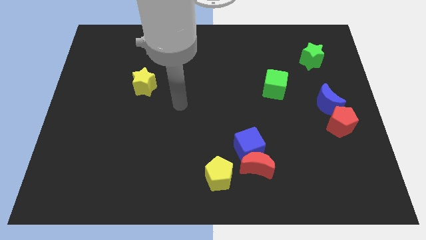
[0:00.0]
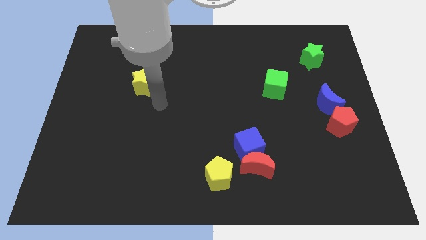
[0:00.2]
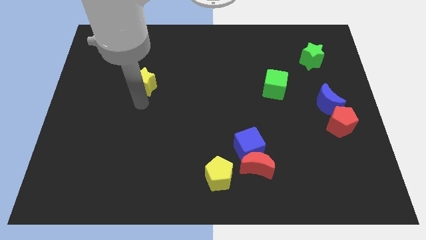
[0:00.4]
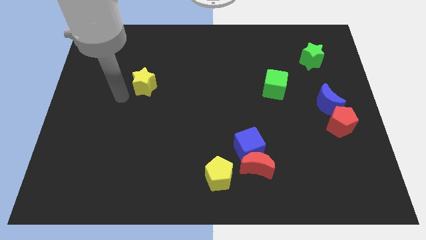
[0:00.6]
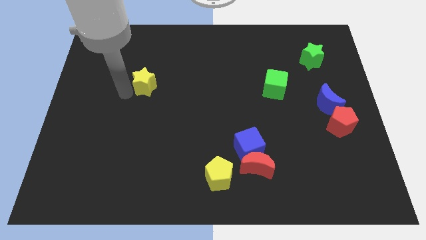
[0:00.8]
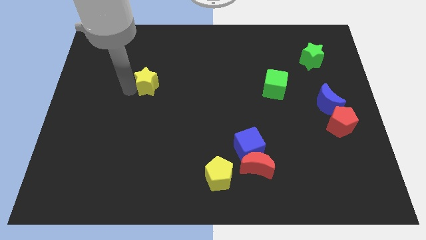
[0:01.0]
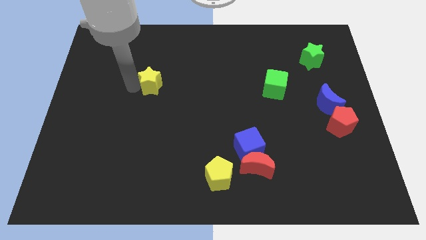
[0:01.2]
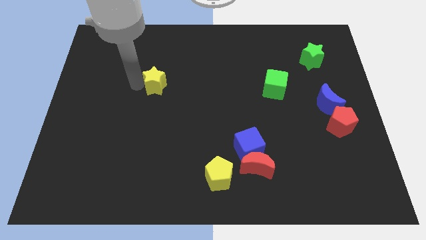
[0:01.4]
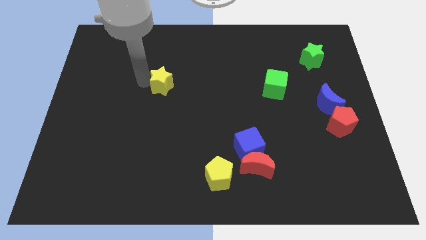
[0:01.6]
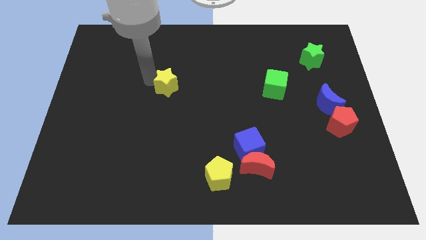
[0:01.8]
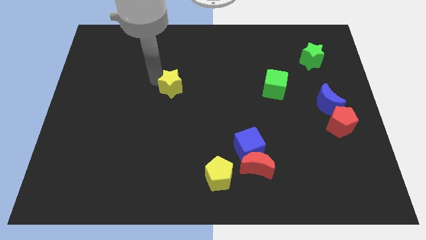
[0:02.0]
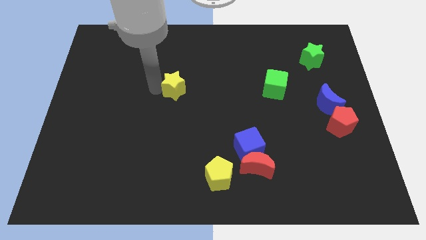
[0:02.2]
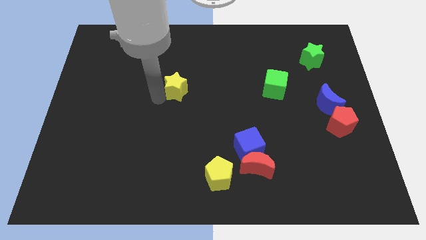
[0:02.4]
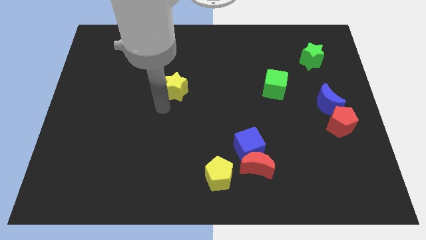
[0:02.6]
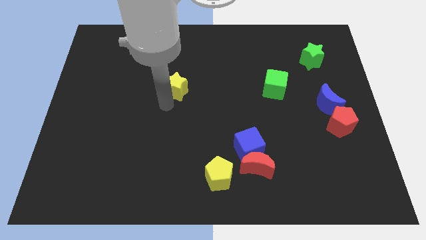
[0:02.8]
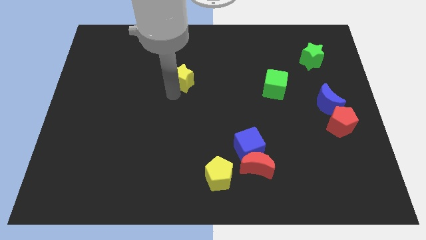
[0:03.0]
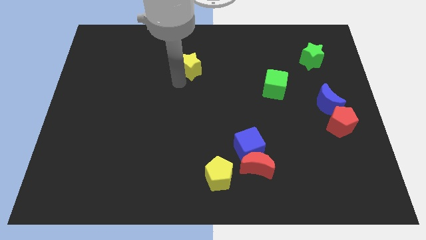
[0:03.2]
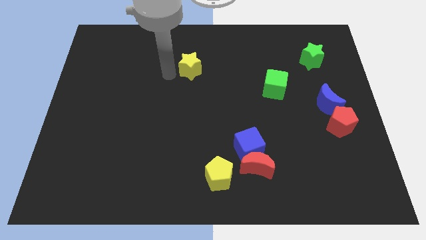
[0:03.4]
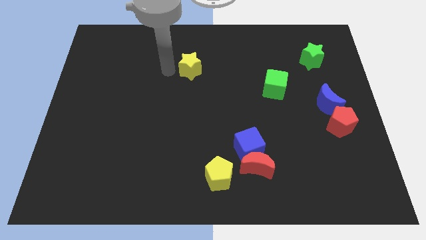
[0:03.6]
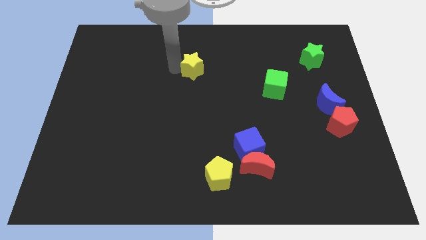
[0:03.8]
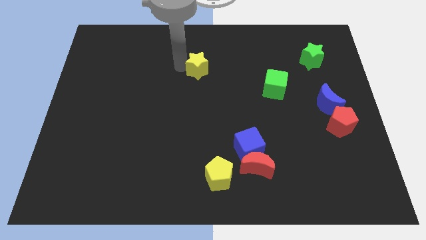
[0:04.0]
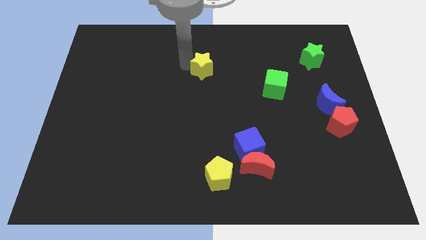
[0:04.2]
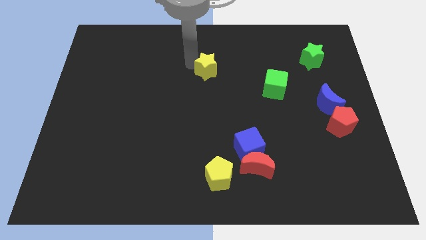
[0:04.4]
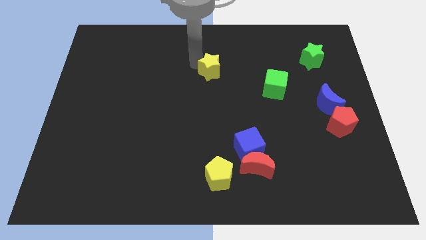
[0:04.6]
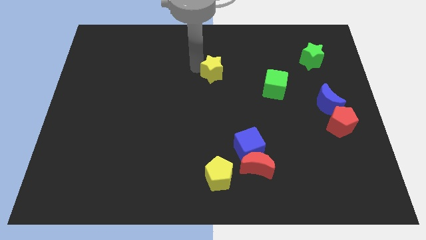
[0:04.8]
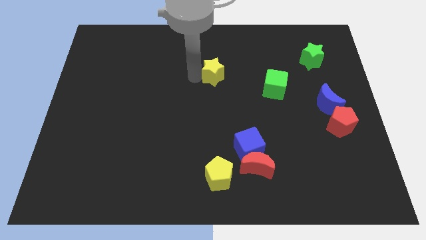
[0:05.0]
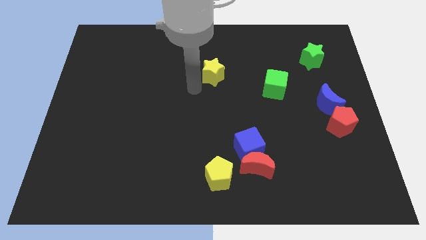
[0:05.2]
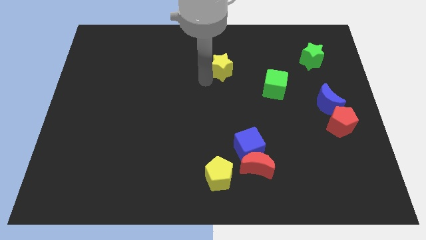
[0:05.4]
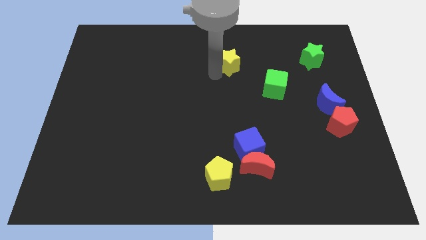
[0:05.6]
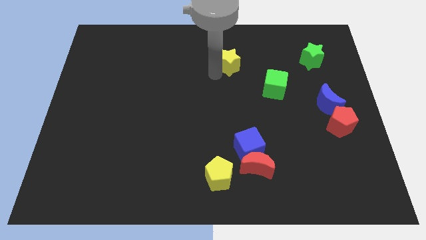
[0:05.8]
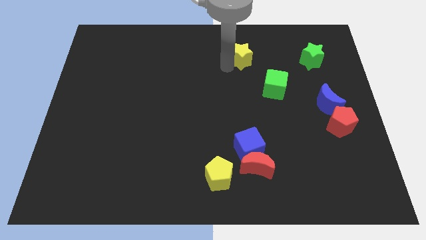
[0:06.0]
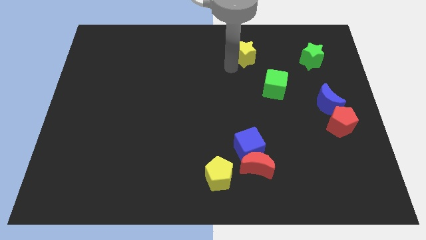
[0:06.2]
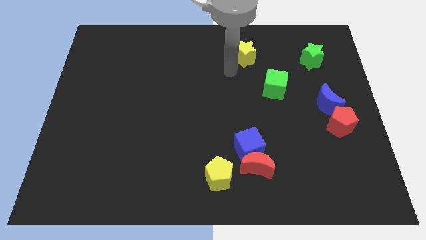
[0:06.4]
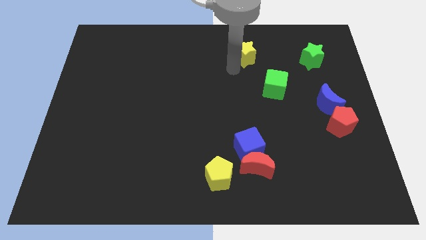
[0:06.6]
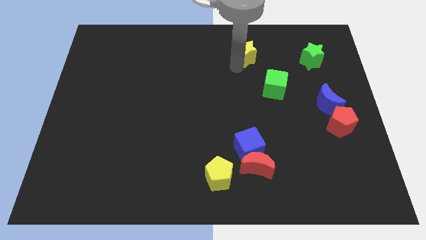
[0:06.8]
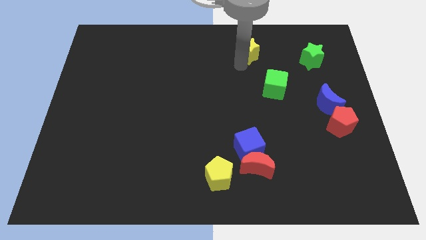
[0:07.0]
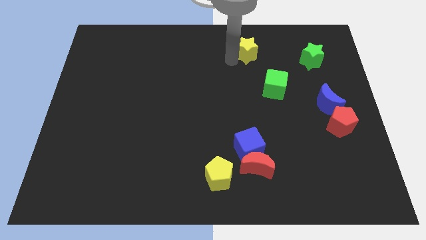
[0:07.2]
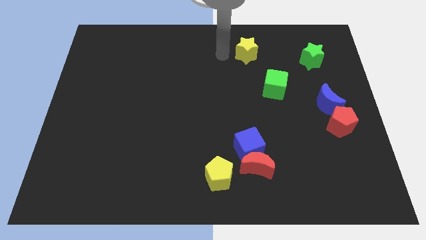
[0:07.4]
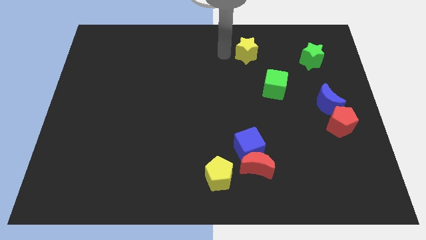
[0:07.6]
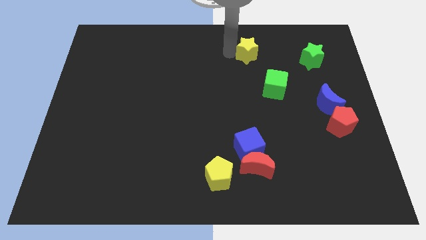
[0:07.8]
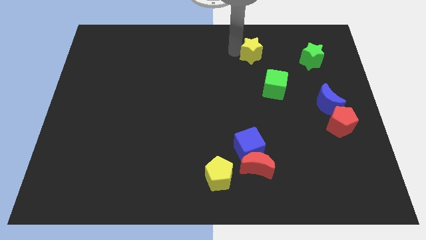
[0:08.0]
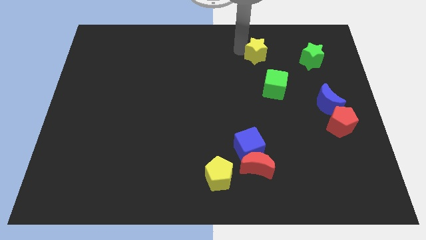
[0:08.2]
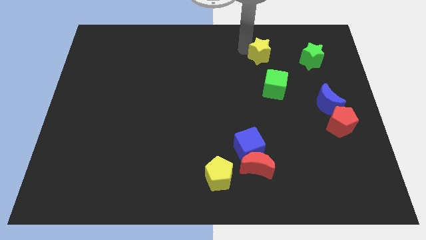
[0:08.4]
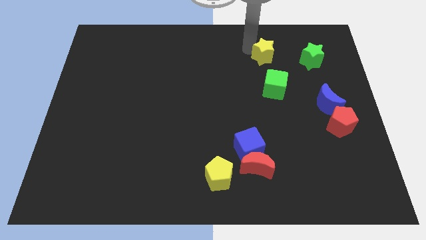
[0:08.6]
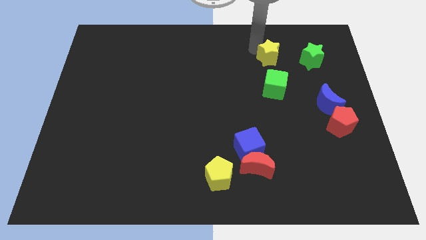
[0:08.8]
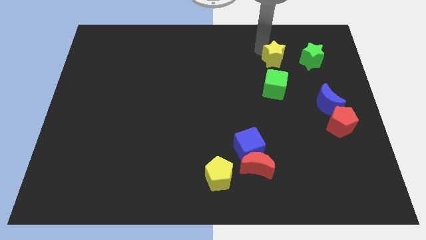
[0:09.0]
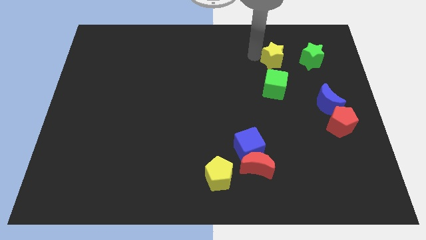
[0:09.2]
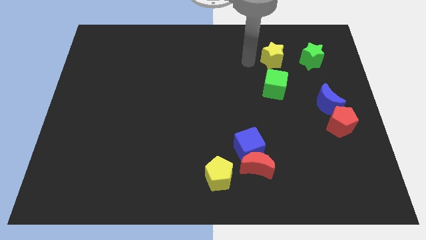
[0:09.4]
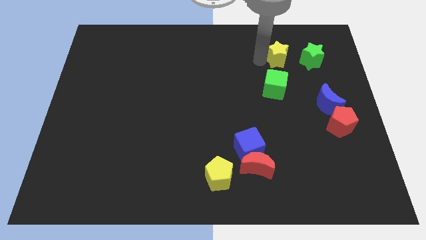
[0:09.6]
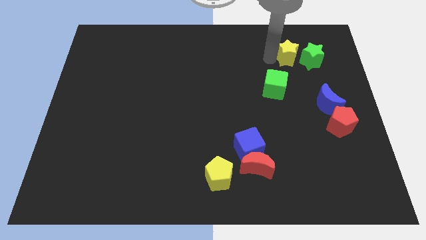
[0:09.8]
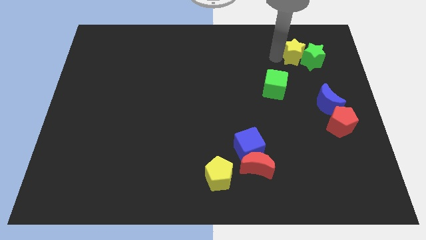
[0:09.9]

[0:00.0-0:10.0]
slide the yellow star to the green star

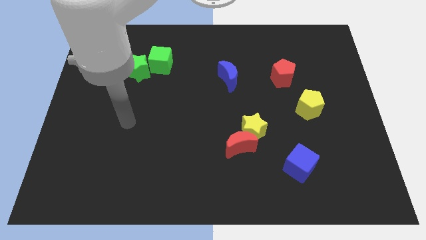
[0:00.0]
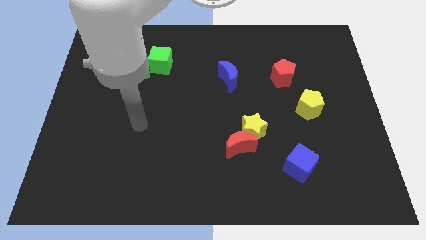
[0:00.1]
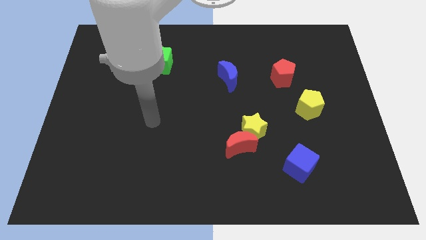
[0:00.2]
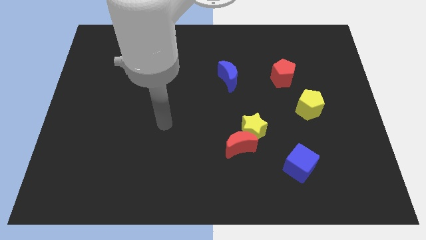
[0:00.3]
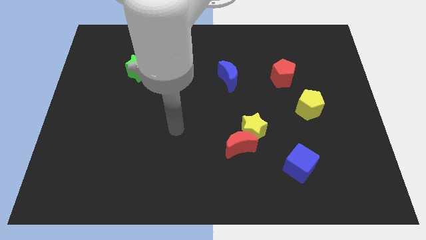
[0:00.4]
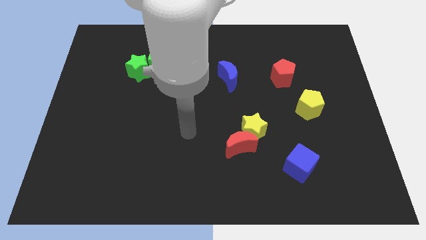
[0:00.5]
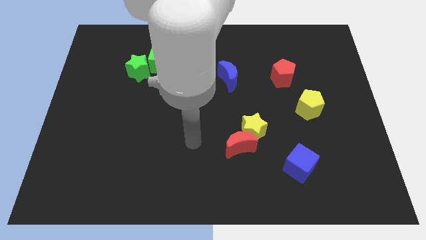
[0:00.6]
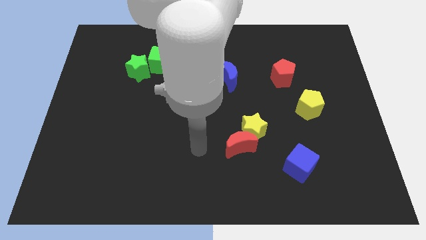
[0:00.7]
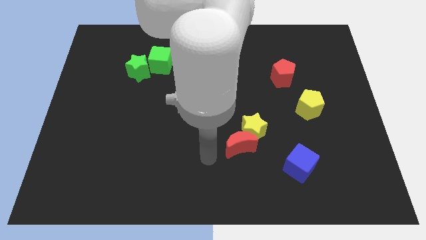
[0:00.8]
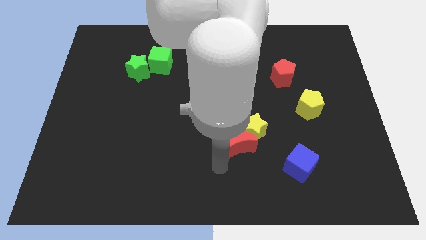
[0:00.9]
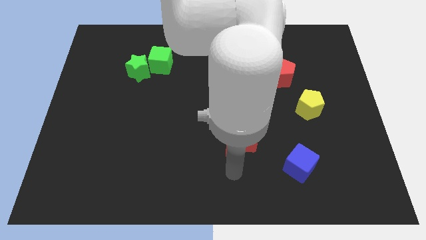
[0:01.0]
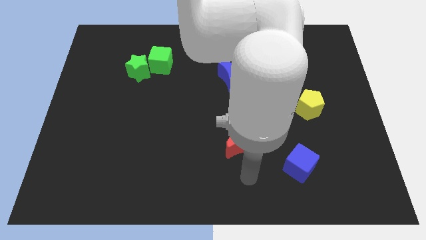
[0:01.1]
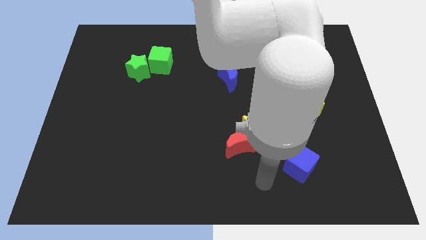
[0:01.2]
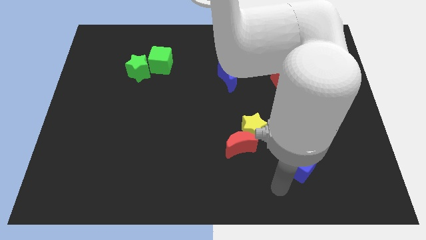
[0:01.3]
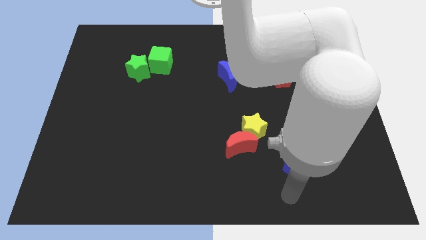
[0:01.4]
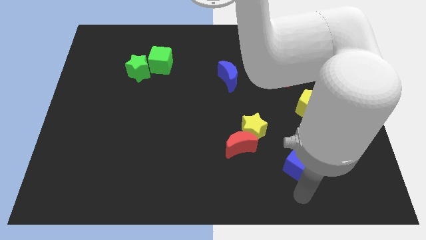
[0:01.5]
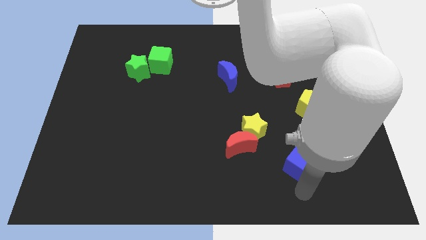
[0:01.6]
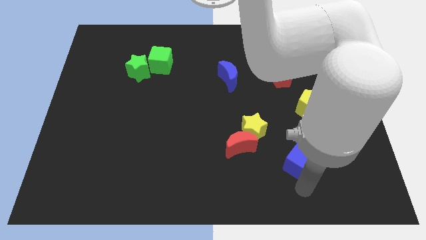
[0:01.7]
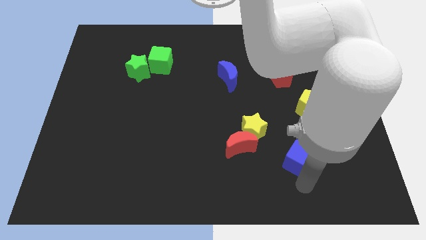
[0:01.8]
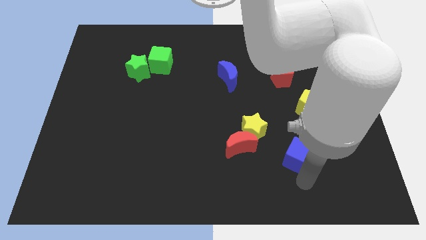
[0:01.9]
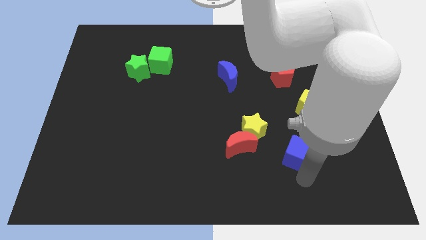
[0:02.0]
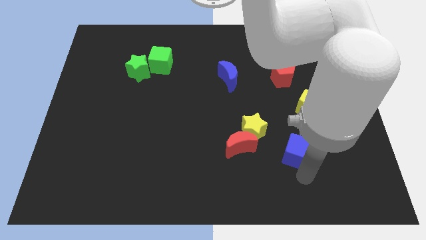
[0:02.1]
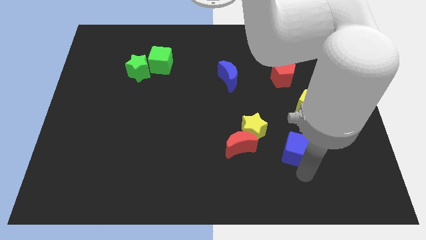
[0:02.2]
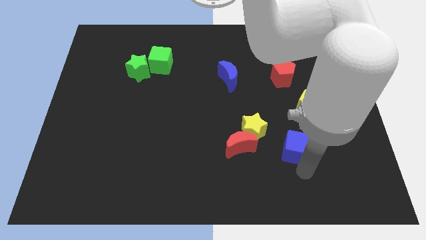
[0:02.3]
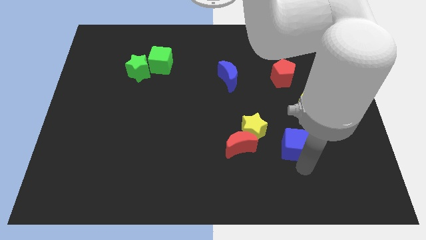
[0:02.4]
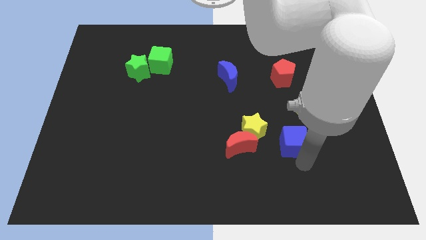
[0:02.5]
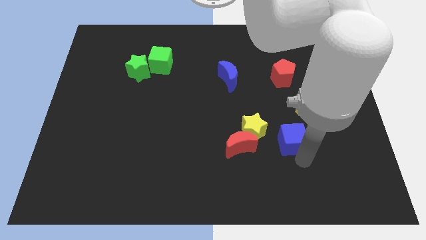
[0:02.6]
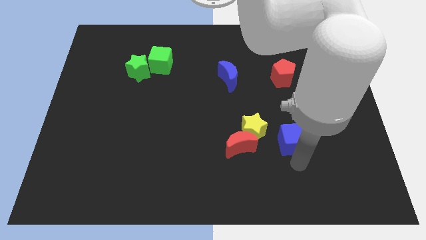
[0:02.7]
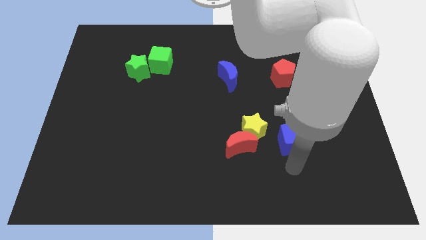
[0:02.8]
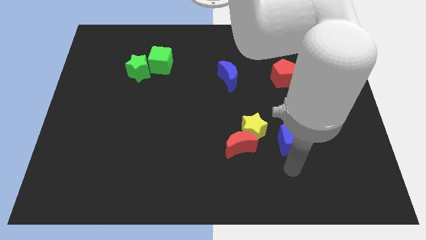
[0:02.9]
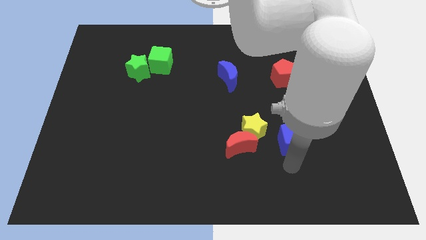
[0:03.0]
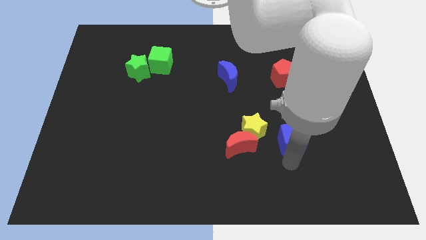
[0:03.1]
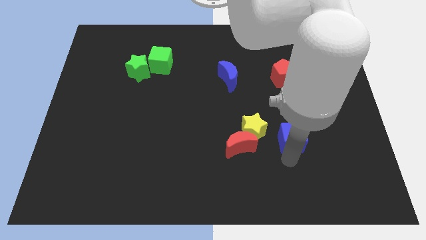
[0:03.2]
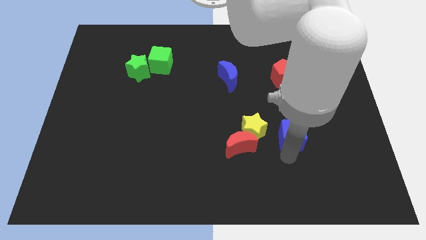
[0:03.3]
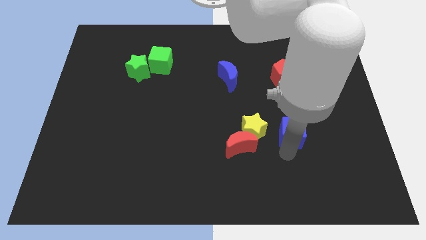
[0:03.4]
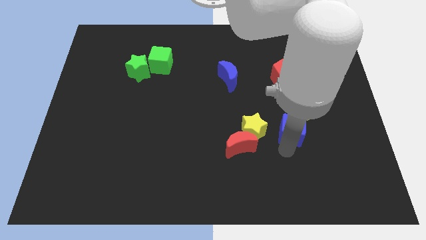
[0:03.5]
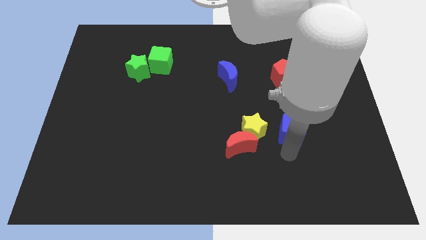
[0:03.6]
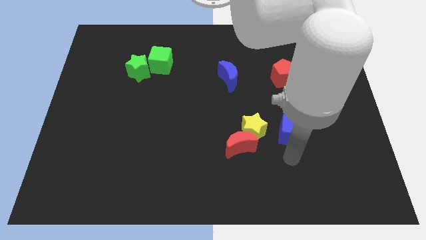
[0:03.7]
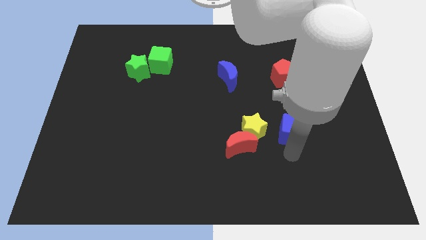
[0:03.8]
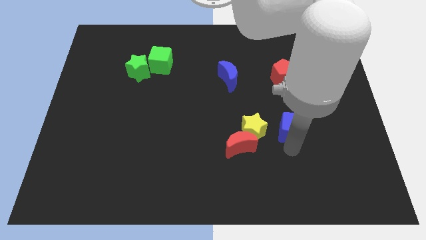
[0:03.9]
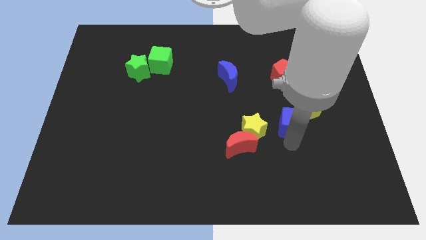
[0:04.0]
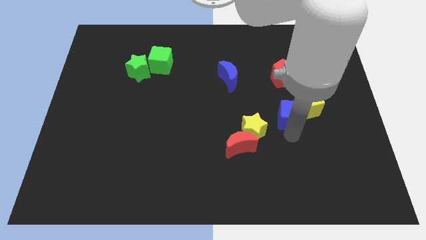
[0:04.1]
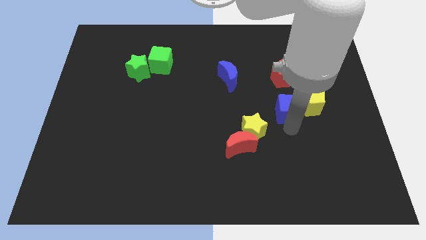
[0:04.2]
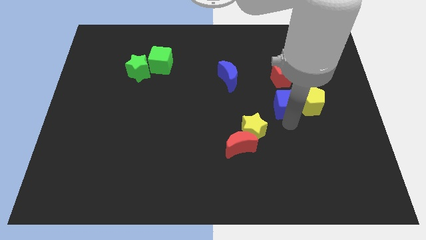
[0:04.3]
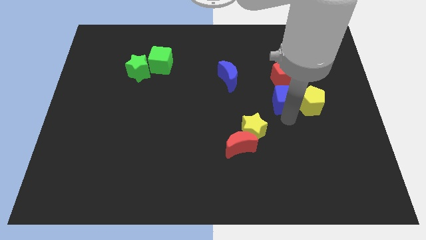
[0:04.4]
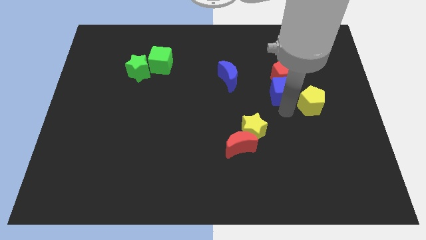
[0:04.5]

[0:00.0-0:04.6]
push the blue cube close to the red pentagon
